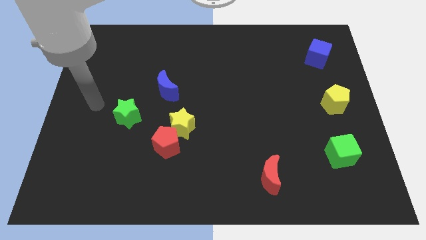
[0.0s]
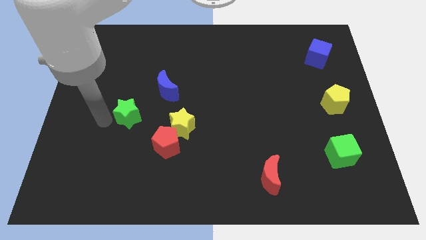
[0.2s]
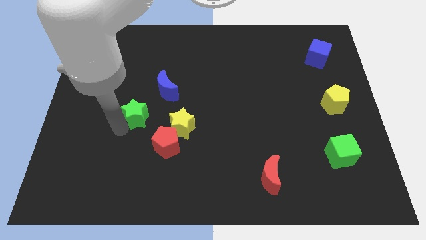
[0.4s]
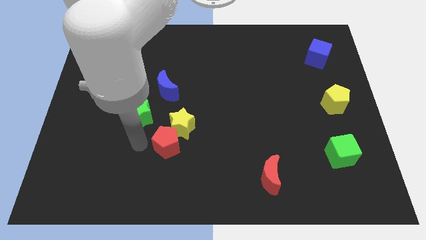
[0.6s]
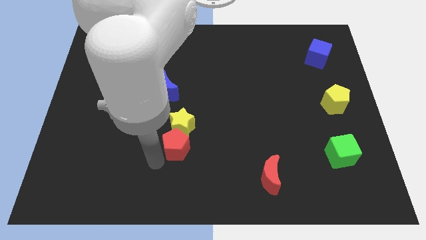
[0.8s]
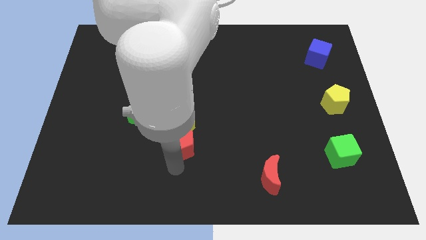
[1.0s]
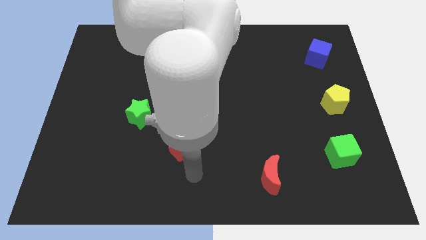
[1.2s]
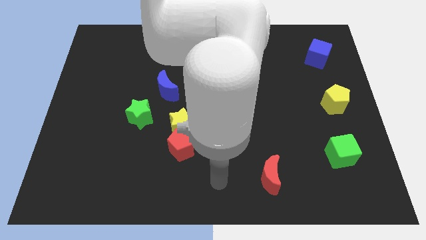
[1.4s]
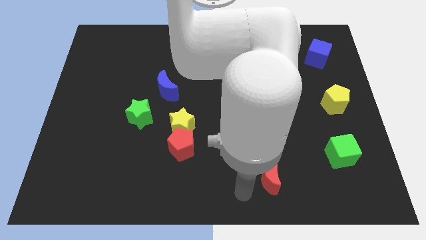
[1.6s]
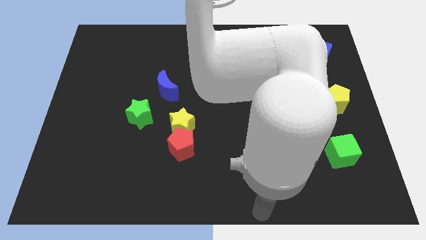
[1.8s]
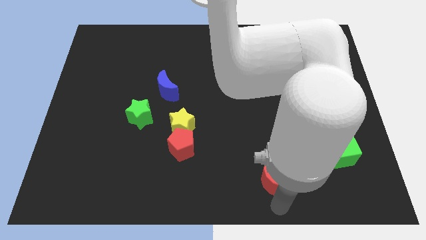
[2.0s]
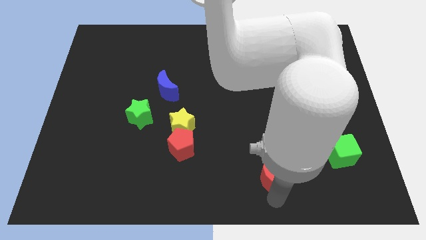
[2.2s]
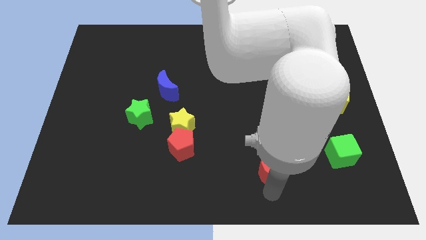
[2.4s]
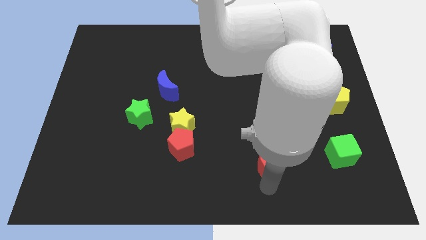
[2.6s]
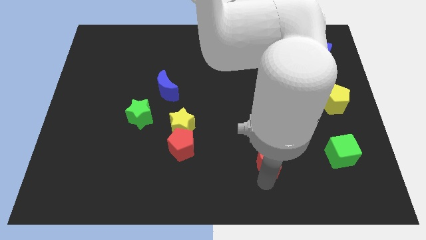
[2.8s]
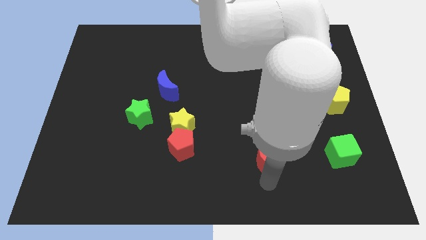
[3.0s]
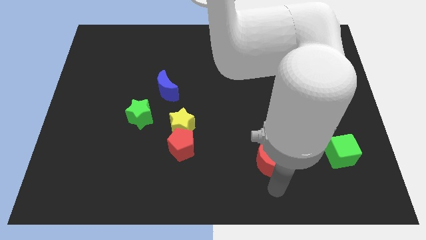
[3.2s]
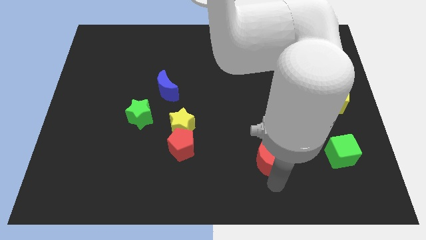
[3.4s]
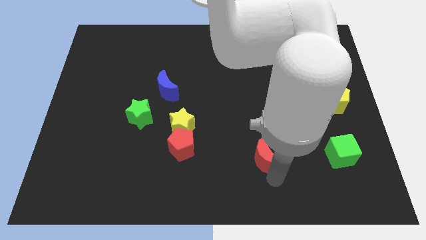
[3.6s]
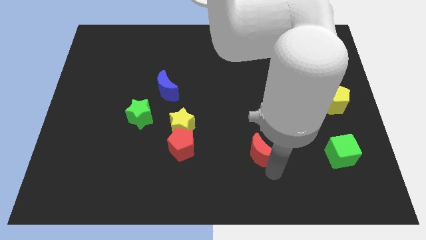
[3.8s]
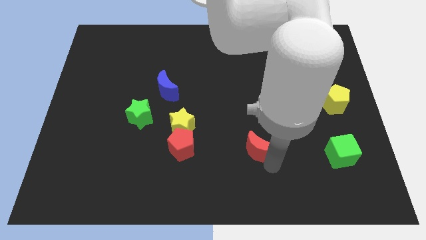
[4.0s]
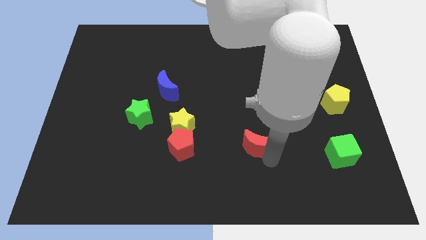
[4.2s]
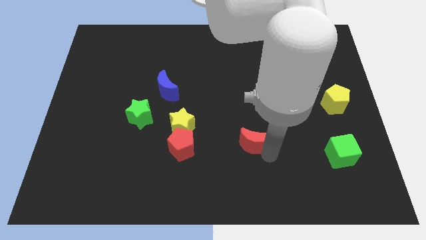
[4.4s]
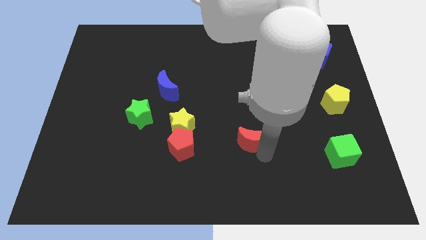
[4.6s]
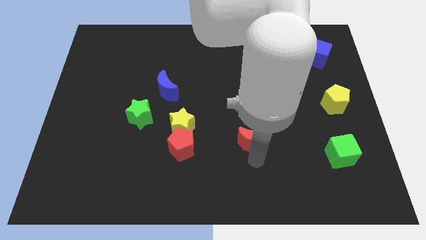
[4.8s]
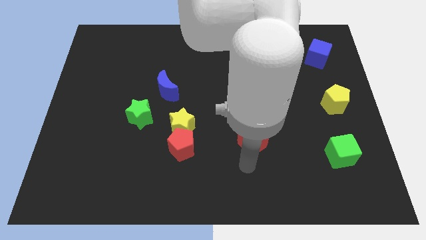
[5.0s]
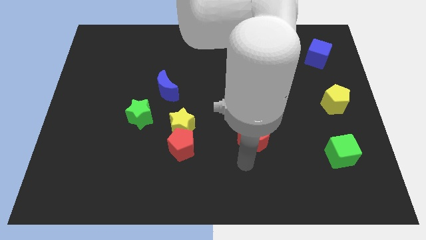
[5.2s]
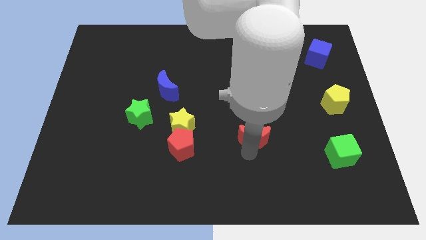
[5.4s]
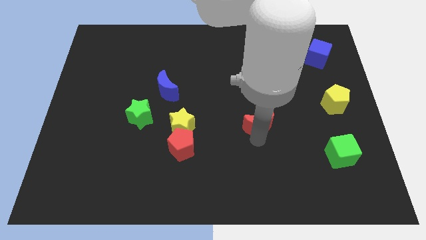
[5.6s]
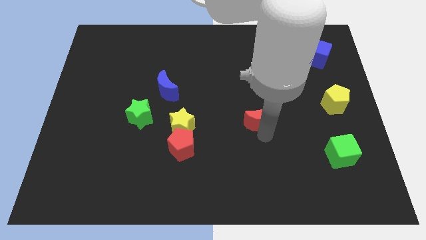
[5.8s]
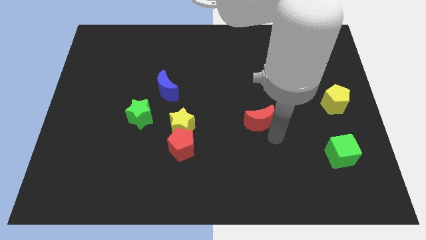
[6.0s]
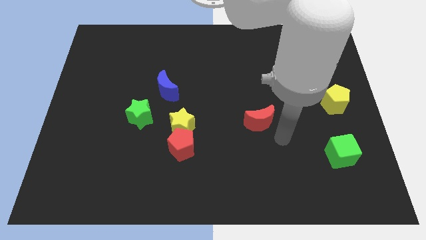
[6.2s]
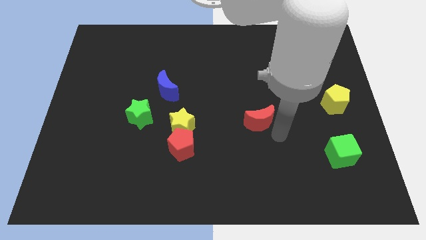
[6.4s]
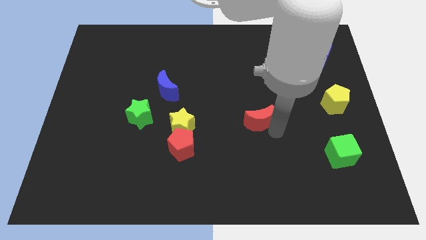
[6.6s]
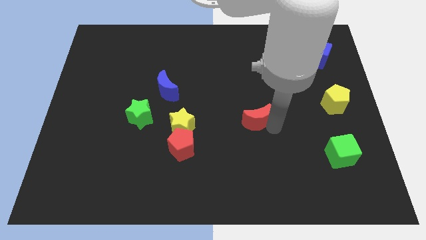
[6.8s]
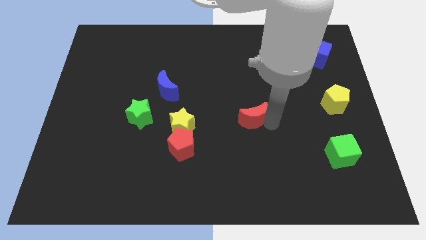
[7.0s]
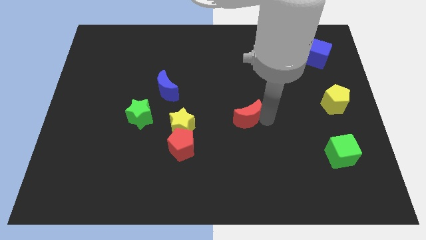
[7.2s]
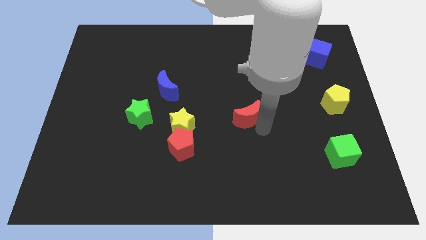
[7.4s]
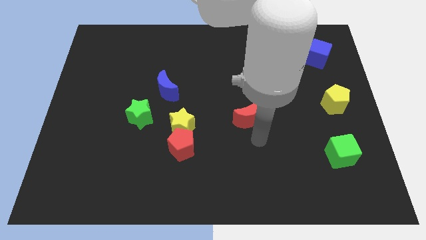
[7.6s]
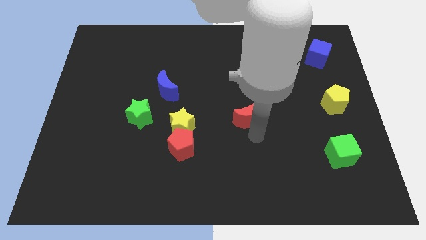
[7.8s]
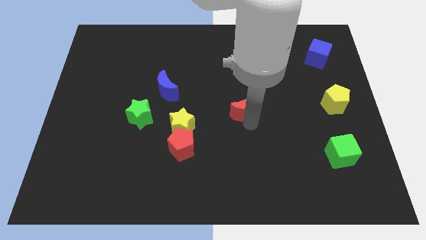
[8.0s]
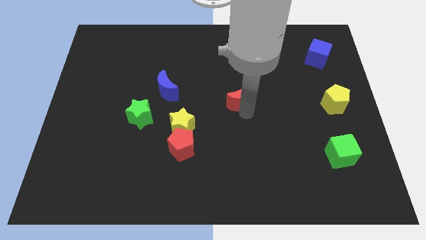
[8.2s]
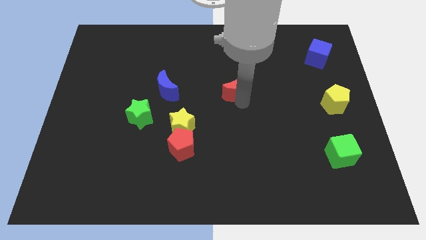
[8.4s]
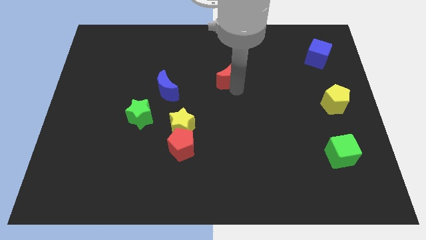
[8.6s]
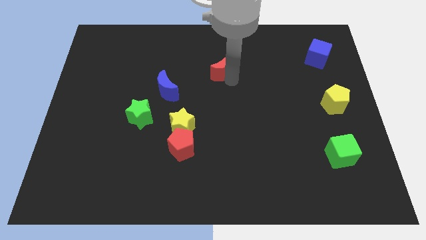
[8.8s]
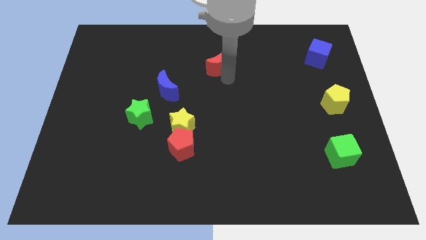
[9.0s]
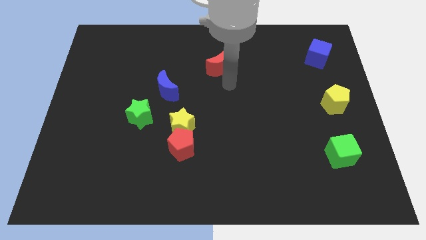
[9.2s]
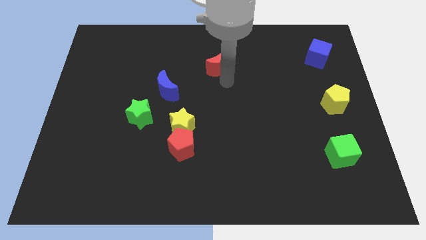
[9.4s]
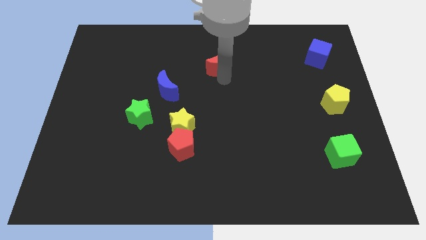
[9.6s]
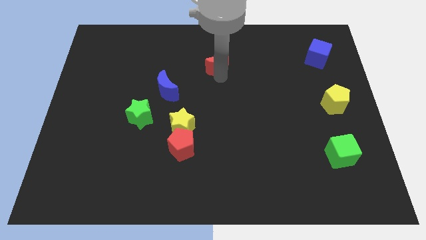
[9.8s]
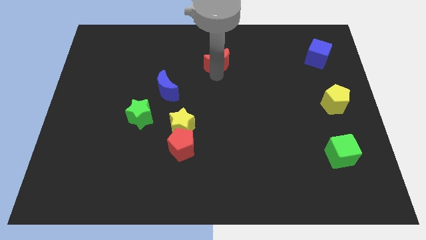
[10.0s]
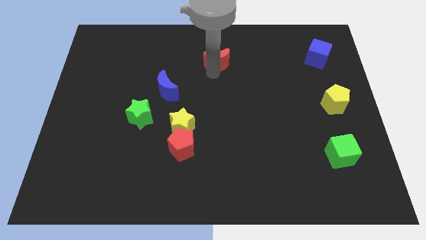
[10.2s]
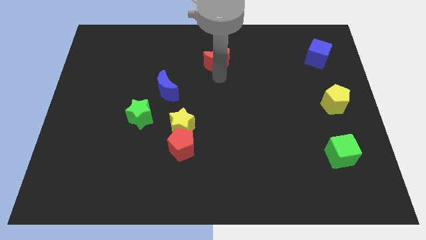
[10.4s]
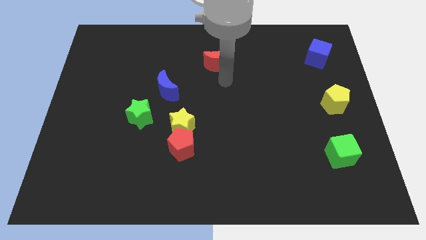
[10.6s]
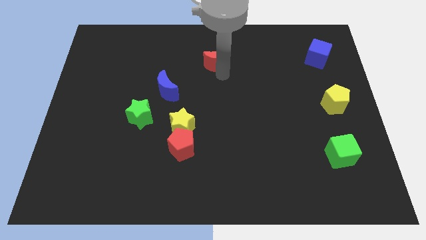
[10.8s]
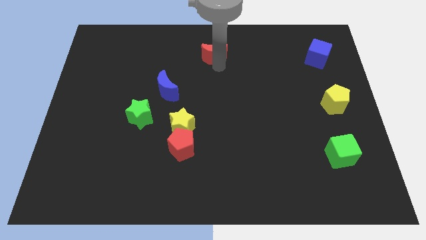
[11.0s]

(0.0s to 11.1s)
slide the red moon to the top

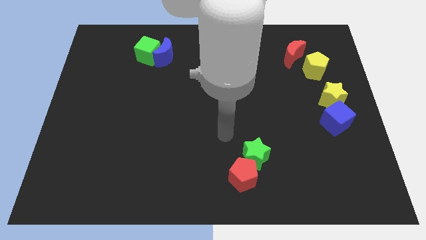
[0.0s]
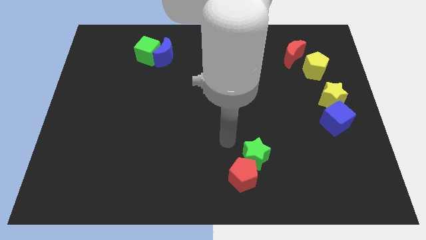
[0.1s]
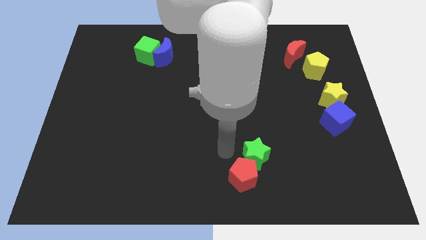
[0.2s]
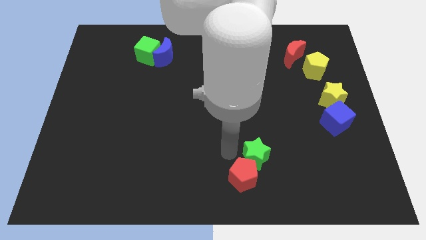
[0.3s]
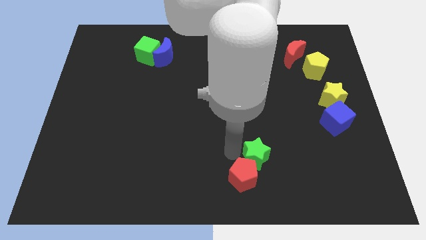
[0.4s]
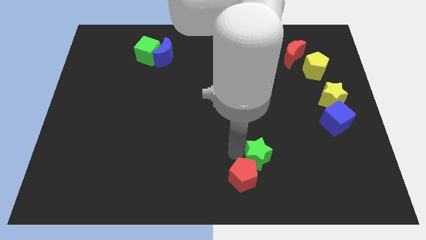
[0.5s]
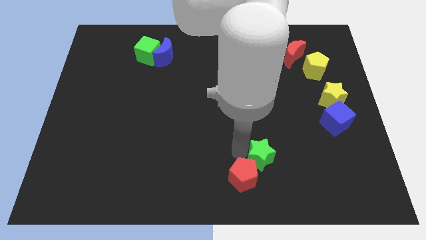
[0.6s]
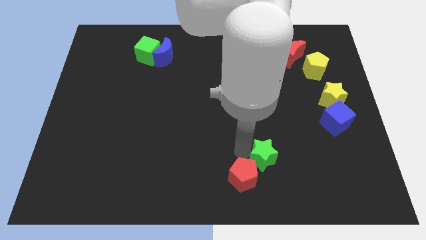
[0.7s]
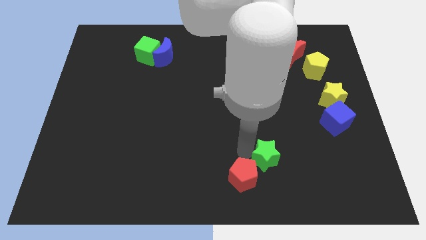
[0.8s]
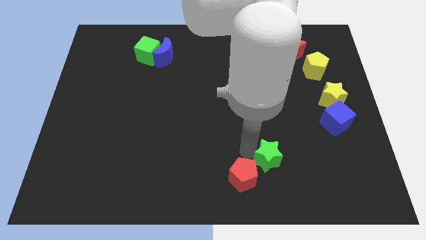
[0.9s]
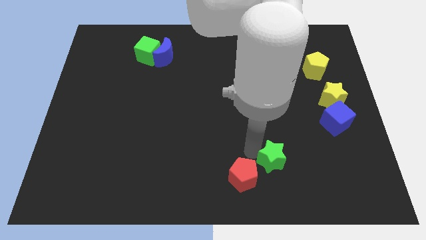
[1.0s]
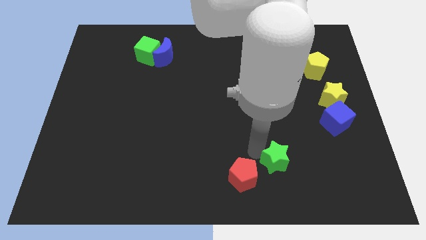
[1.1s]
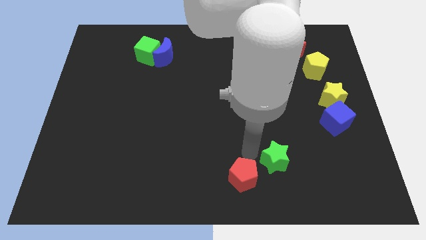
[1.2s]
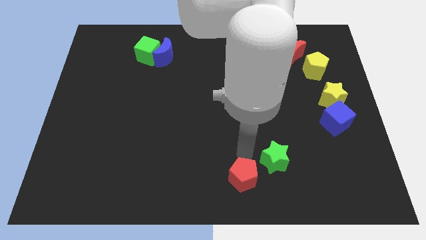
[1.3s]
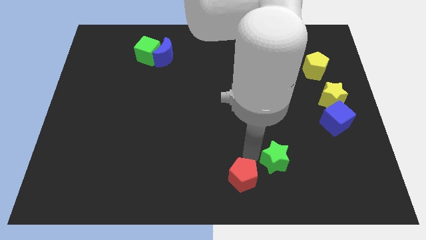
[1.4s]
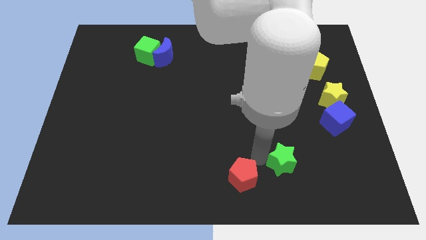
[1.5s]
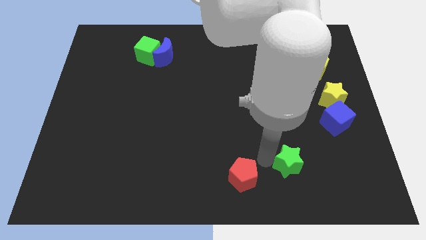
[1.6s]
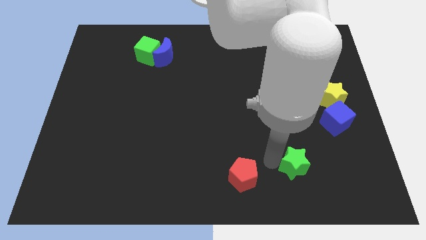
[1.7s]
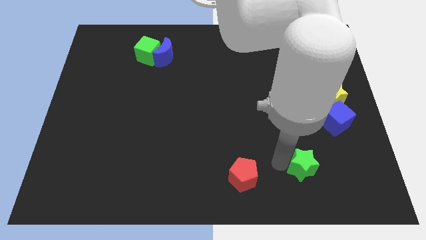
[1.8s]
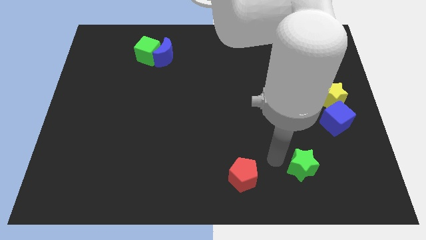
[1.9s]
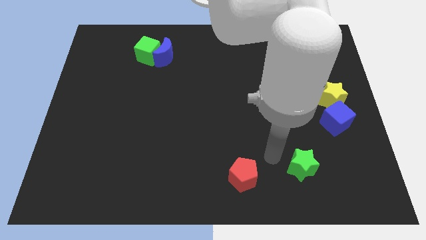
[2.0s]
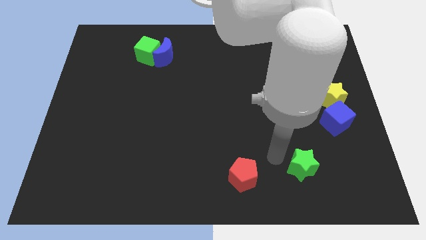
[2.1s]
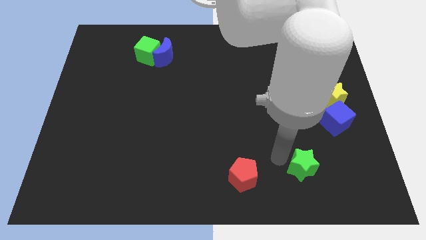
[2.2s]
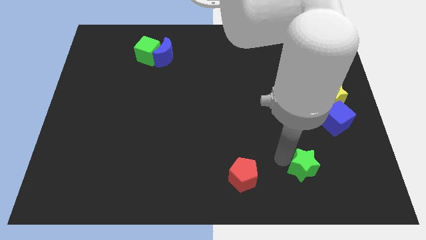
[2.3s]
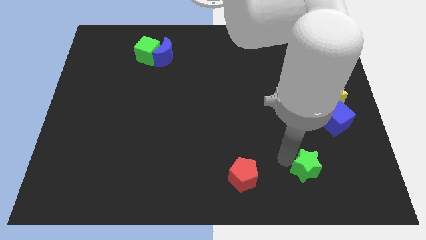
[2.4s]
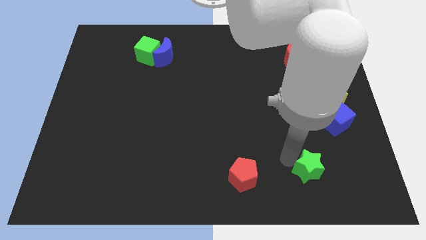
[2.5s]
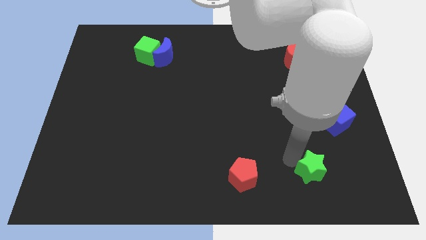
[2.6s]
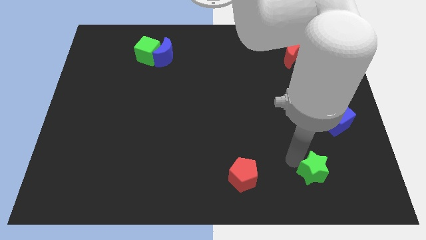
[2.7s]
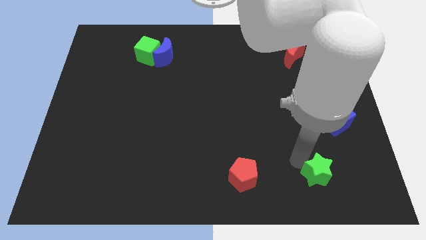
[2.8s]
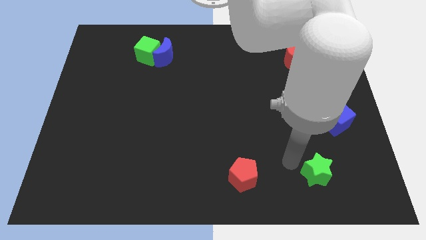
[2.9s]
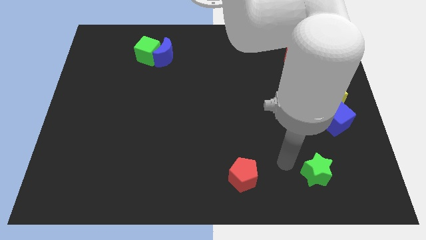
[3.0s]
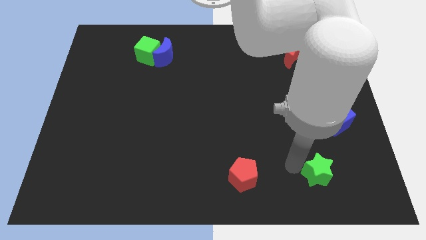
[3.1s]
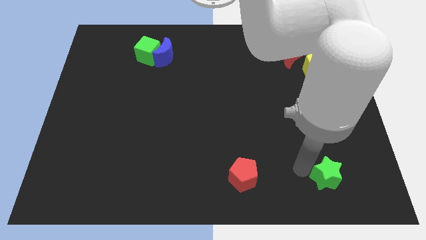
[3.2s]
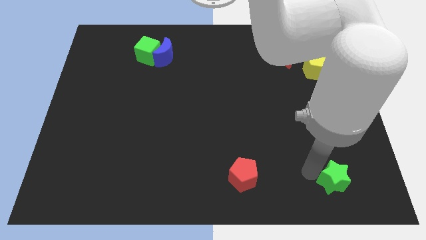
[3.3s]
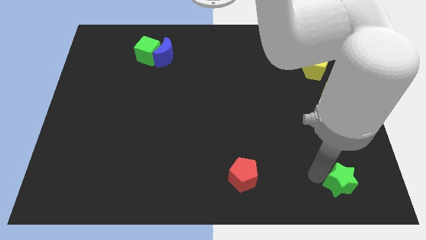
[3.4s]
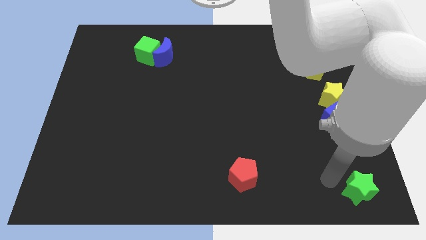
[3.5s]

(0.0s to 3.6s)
put the green star to the bottom right of the board
